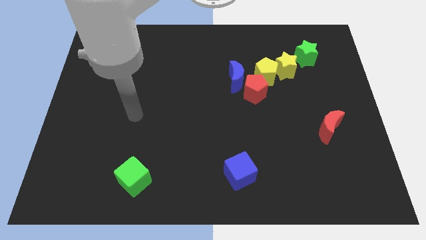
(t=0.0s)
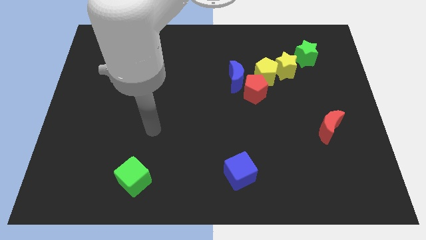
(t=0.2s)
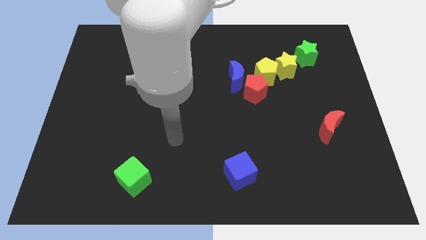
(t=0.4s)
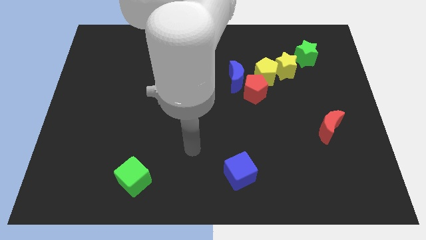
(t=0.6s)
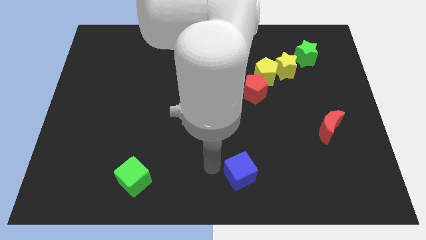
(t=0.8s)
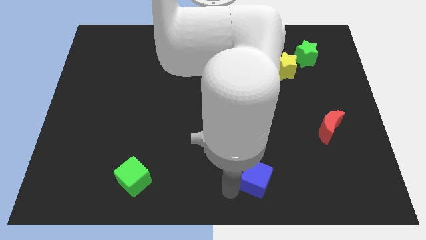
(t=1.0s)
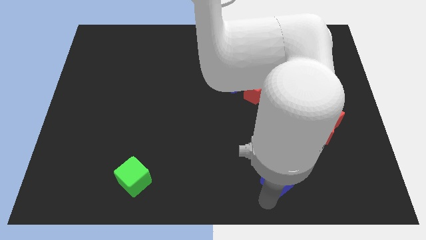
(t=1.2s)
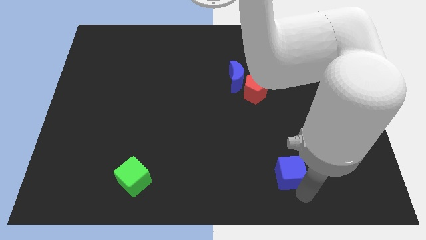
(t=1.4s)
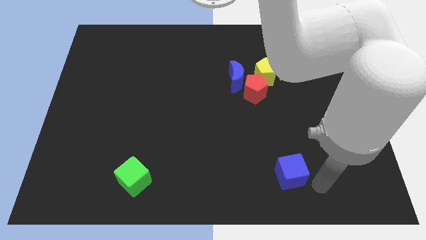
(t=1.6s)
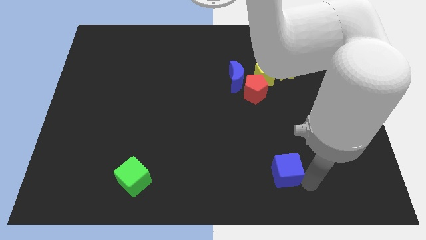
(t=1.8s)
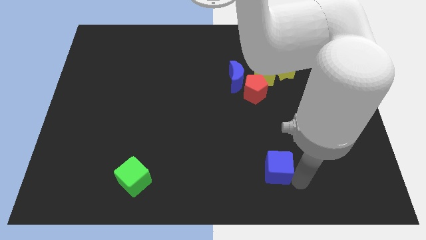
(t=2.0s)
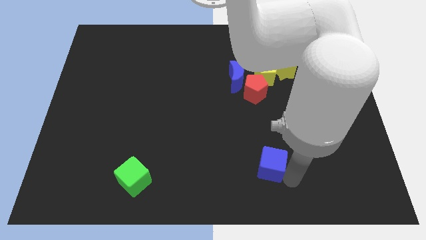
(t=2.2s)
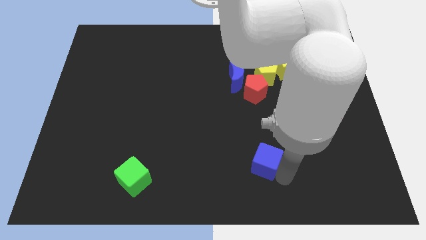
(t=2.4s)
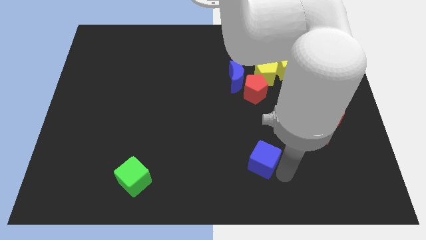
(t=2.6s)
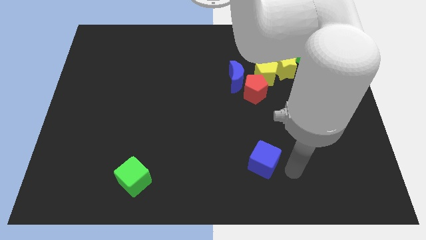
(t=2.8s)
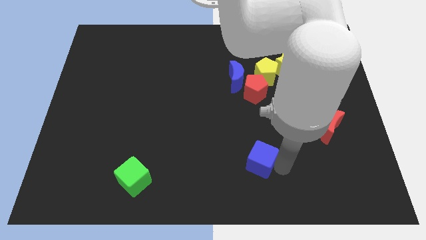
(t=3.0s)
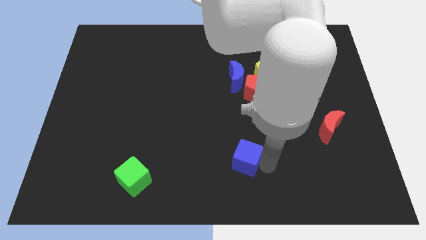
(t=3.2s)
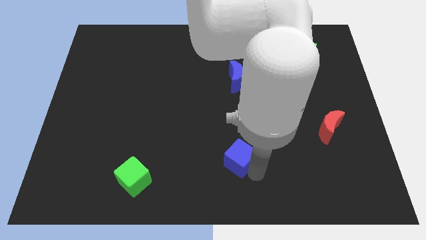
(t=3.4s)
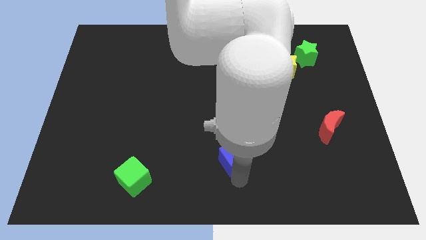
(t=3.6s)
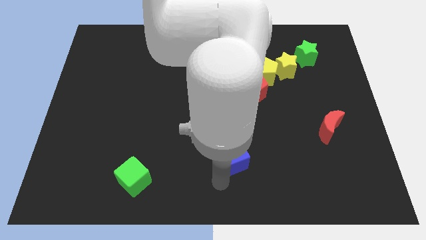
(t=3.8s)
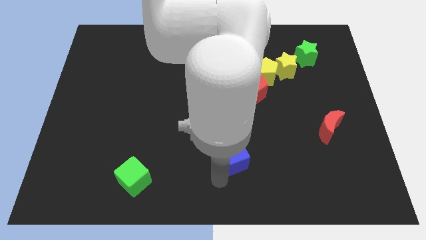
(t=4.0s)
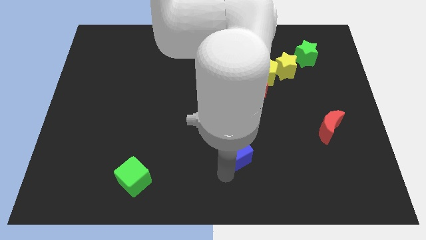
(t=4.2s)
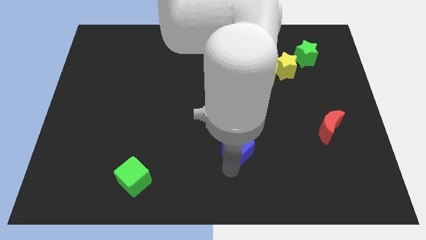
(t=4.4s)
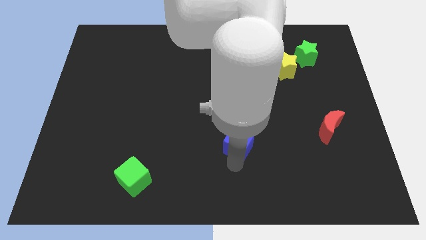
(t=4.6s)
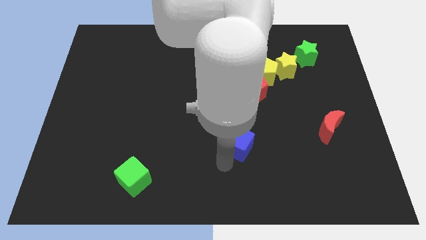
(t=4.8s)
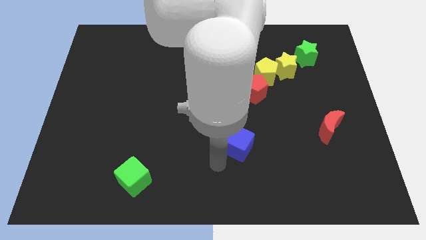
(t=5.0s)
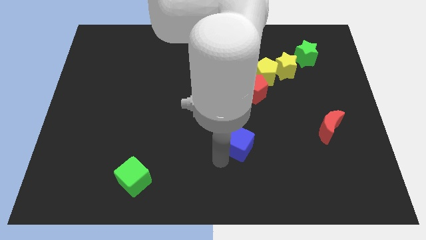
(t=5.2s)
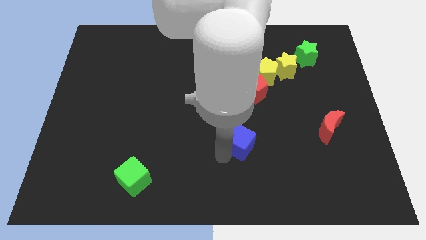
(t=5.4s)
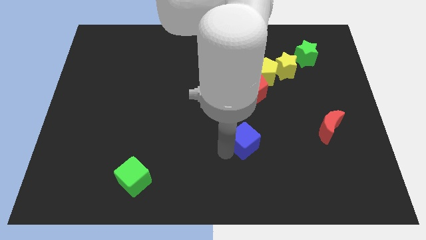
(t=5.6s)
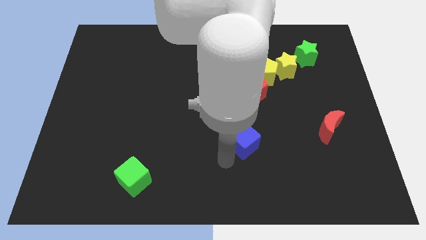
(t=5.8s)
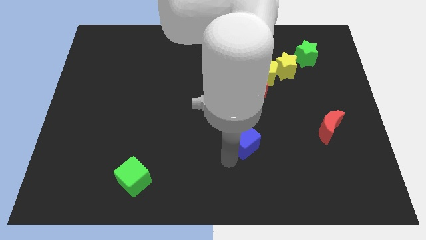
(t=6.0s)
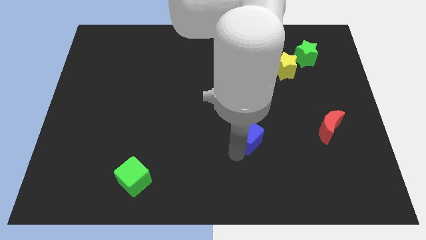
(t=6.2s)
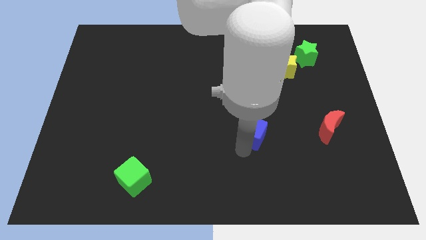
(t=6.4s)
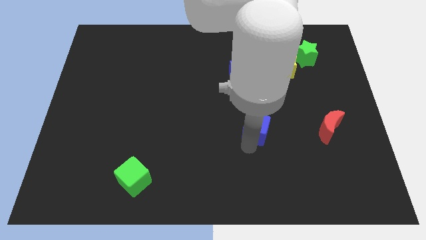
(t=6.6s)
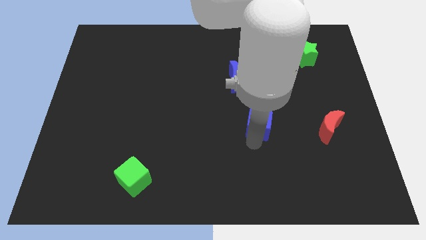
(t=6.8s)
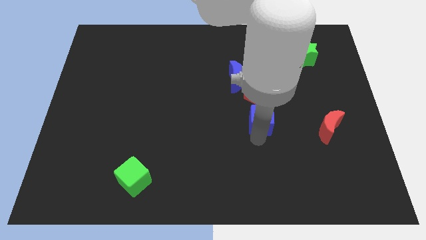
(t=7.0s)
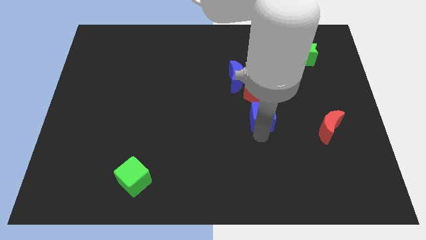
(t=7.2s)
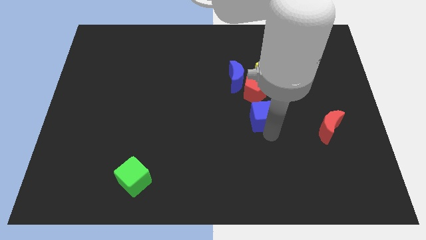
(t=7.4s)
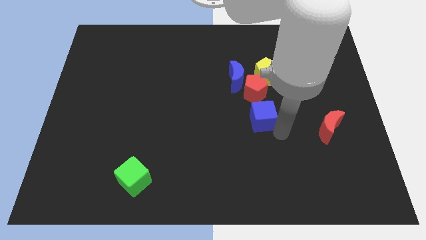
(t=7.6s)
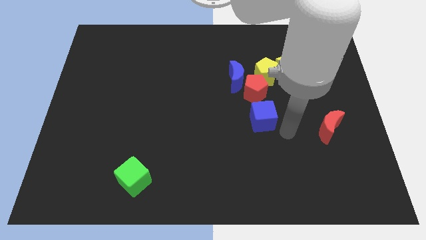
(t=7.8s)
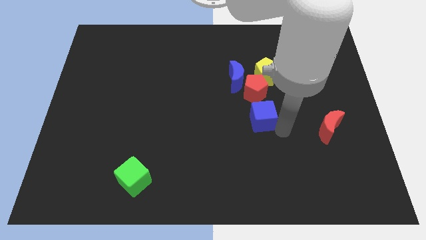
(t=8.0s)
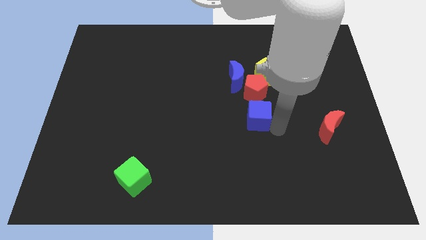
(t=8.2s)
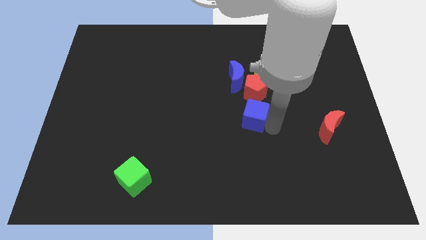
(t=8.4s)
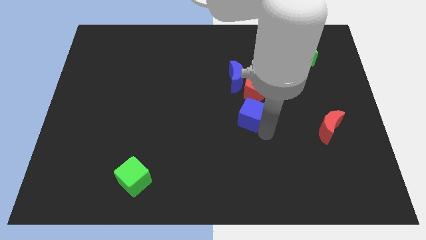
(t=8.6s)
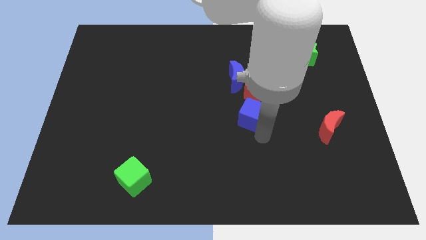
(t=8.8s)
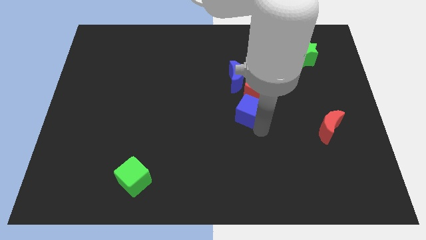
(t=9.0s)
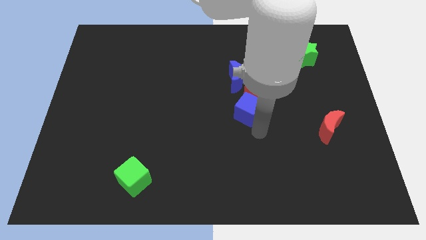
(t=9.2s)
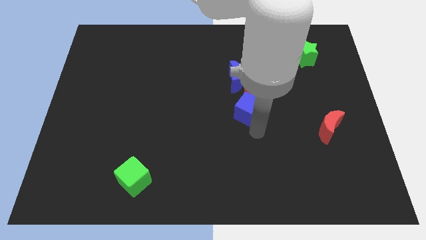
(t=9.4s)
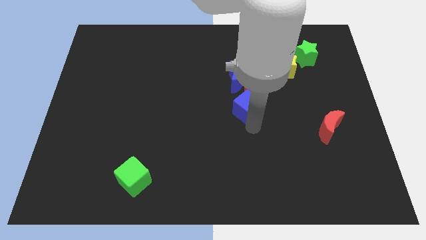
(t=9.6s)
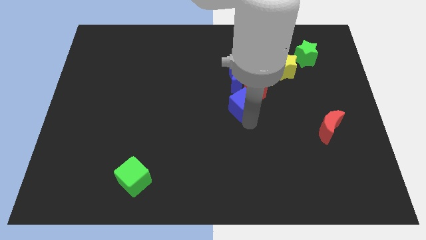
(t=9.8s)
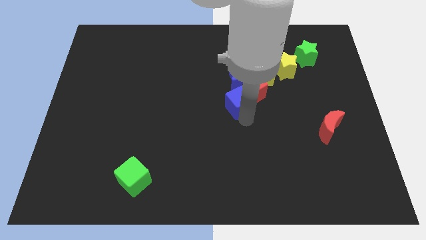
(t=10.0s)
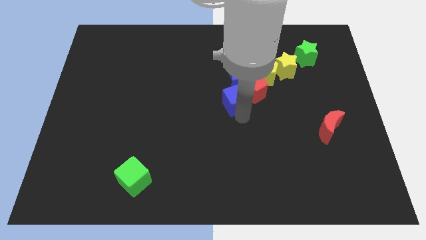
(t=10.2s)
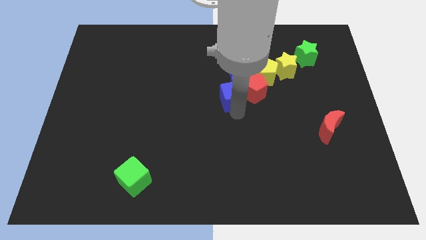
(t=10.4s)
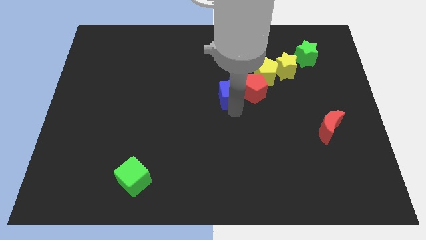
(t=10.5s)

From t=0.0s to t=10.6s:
move the blue cube next to the blue moon

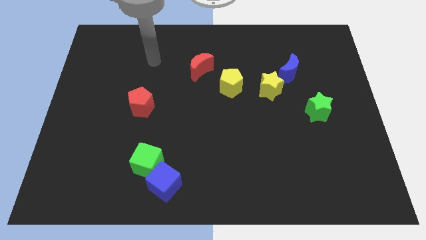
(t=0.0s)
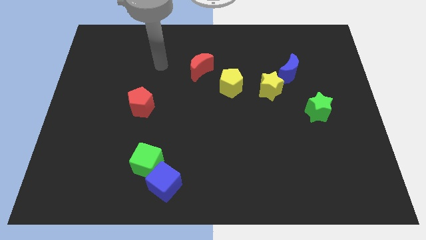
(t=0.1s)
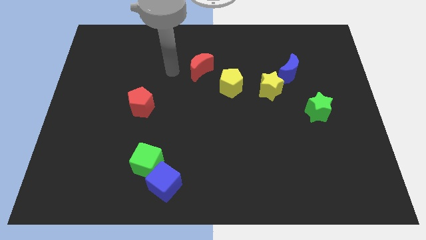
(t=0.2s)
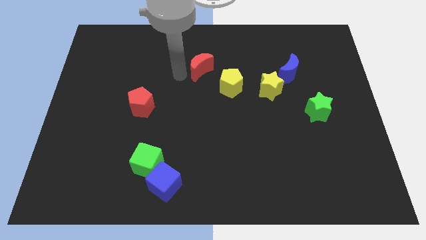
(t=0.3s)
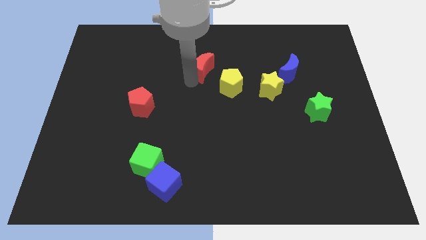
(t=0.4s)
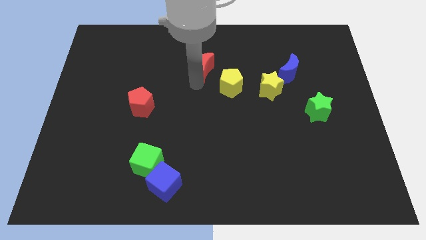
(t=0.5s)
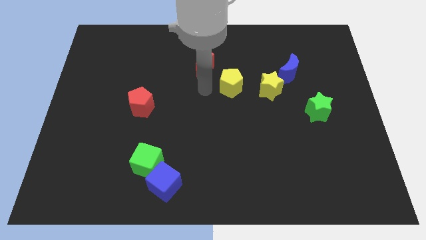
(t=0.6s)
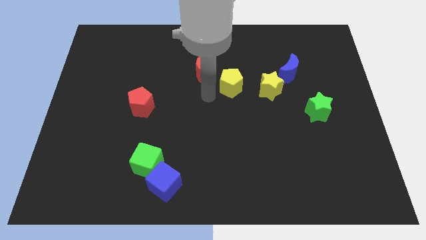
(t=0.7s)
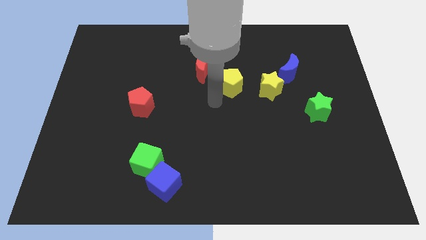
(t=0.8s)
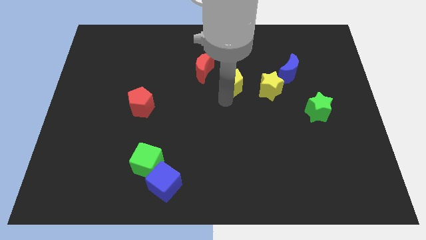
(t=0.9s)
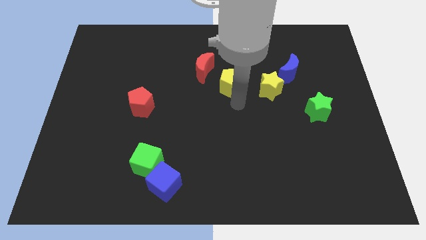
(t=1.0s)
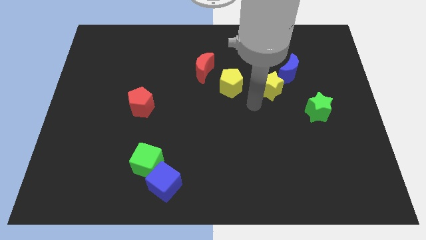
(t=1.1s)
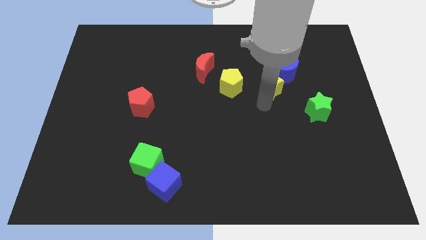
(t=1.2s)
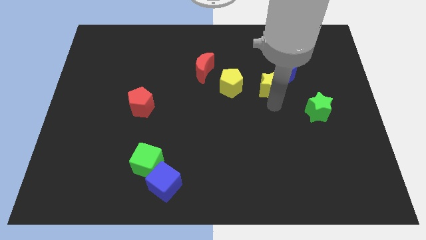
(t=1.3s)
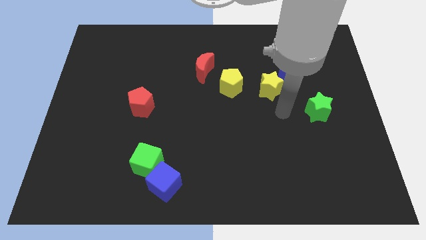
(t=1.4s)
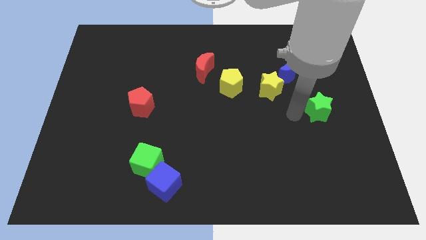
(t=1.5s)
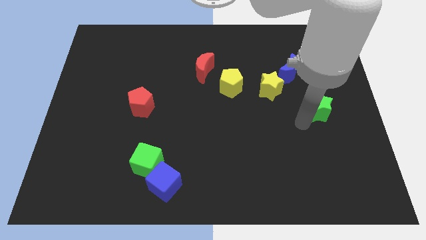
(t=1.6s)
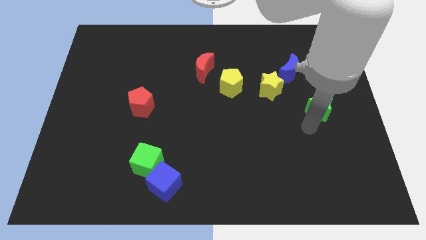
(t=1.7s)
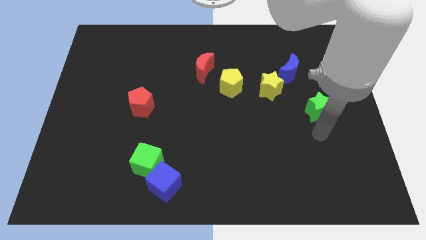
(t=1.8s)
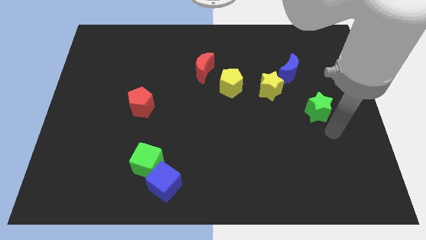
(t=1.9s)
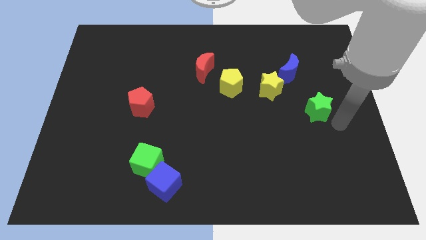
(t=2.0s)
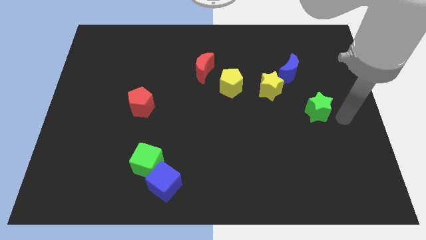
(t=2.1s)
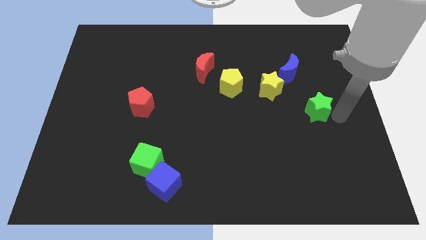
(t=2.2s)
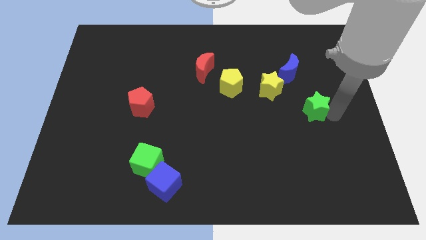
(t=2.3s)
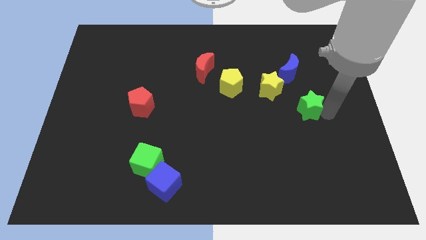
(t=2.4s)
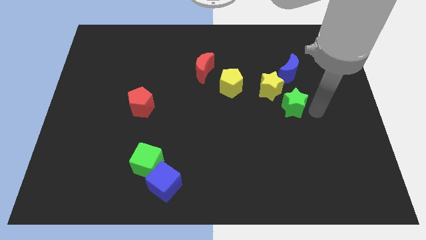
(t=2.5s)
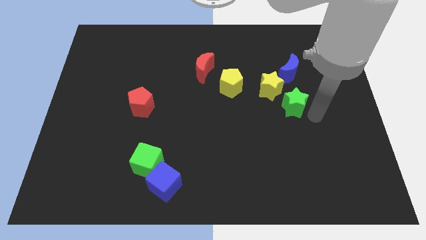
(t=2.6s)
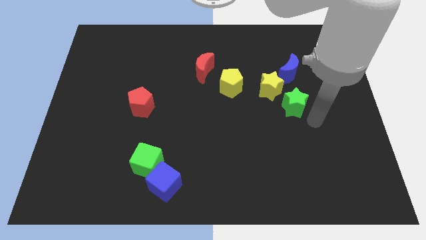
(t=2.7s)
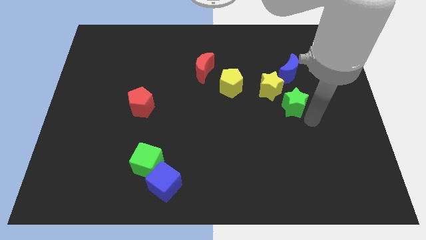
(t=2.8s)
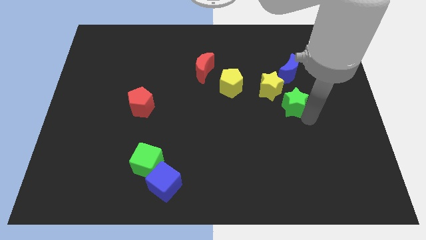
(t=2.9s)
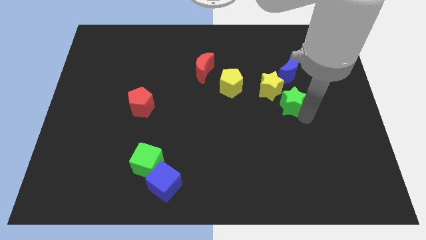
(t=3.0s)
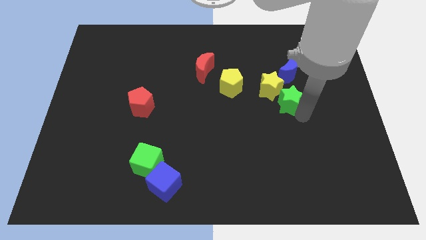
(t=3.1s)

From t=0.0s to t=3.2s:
push the green star next to the yellow star
